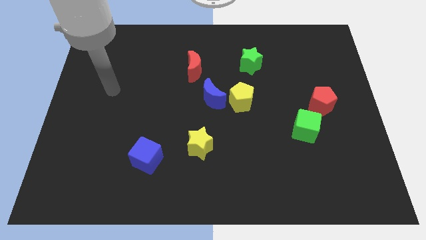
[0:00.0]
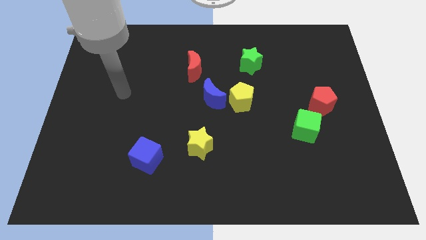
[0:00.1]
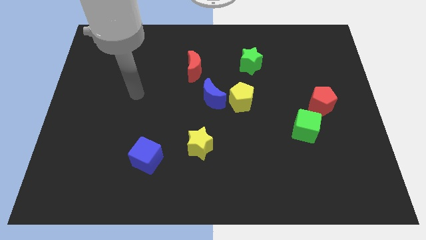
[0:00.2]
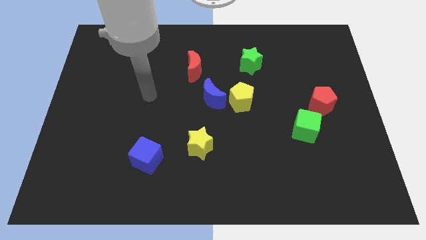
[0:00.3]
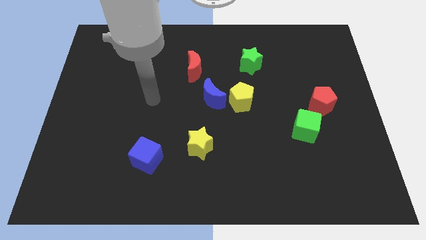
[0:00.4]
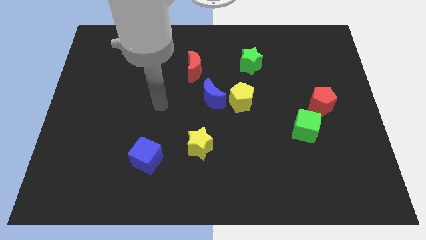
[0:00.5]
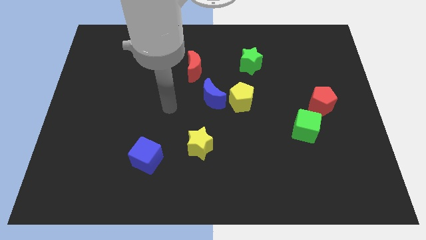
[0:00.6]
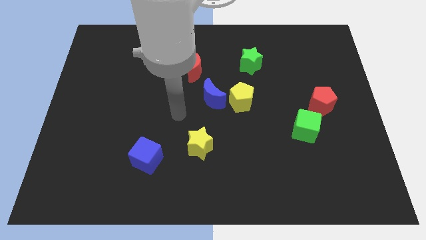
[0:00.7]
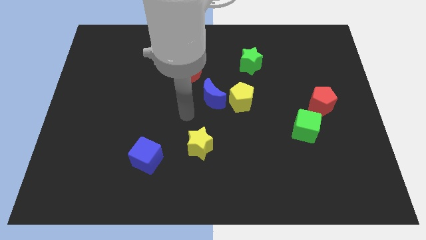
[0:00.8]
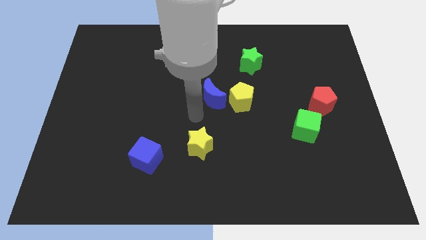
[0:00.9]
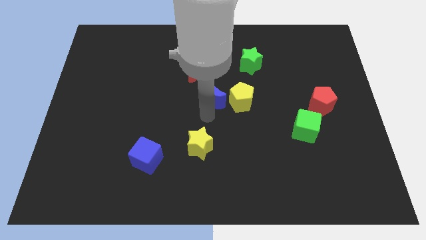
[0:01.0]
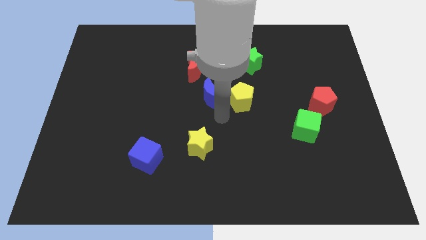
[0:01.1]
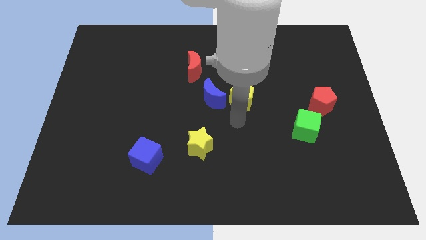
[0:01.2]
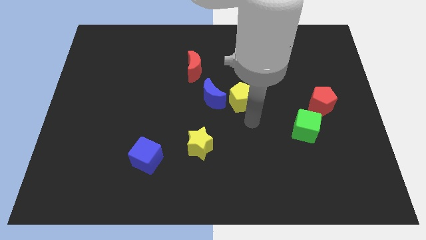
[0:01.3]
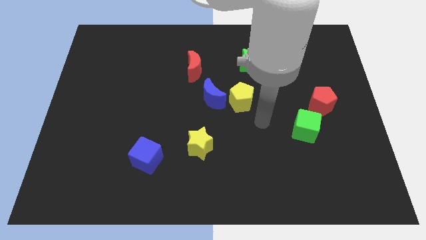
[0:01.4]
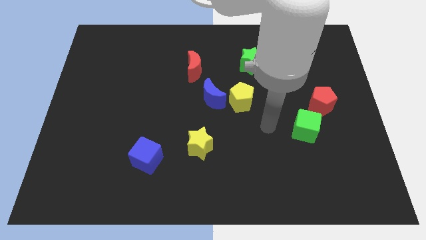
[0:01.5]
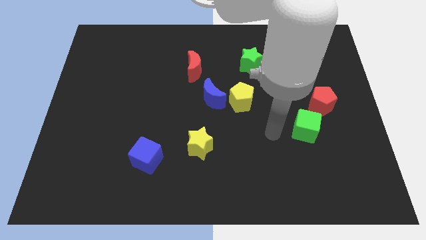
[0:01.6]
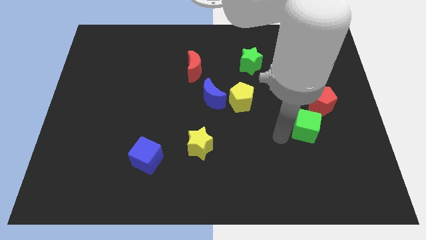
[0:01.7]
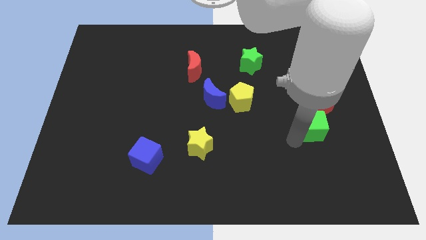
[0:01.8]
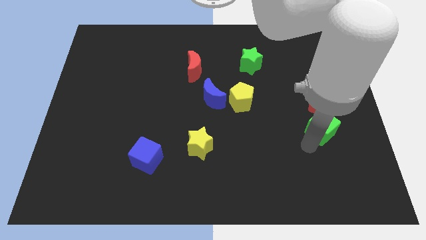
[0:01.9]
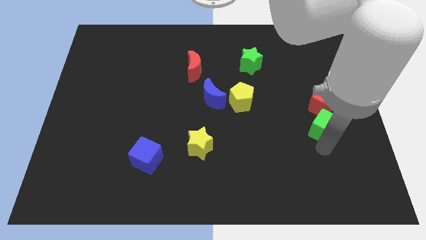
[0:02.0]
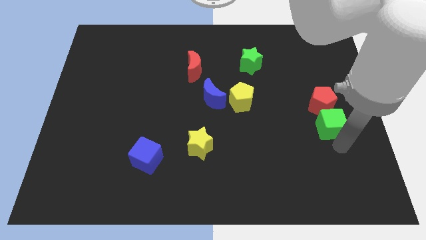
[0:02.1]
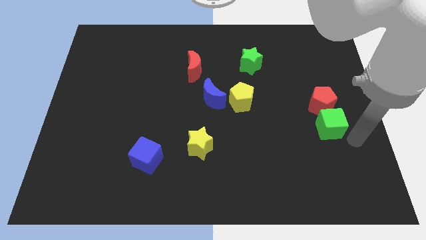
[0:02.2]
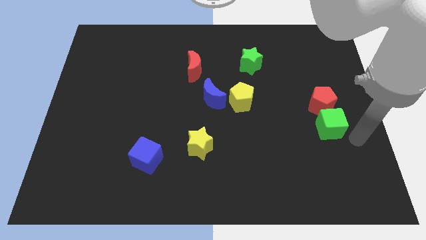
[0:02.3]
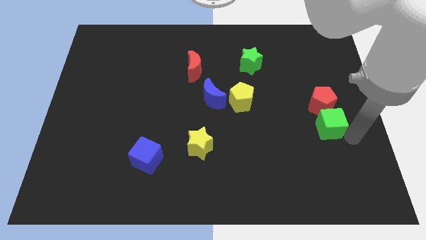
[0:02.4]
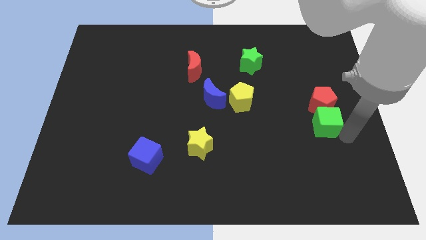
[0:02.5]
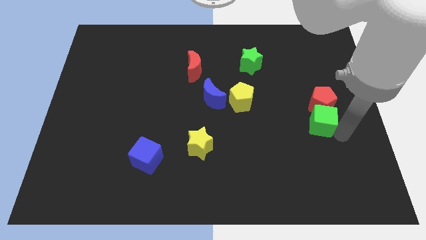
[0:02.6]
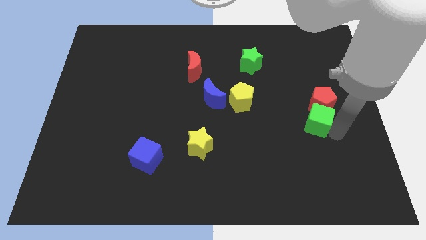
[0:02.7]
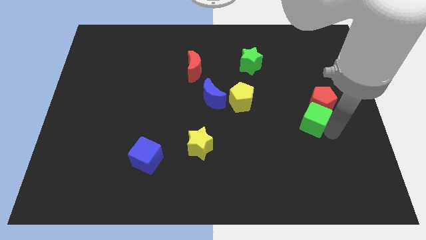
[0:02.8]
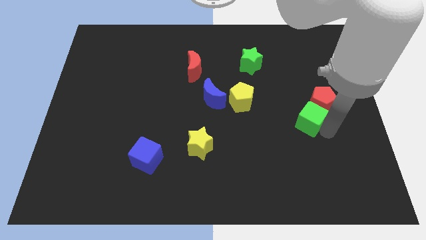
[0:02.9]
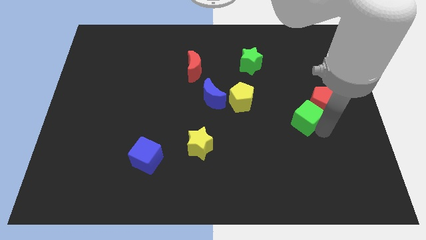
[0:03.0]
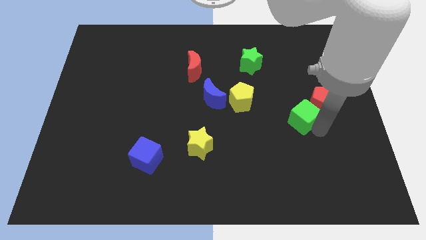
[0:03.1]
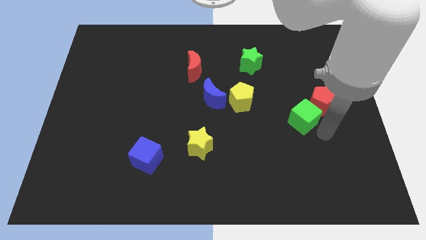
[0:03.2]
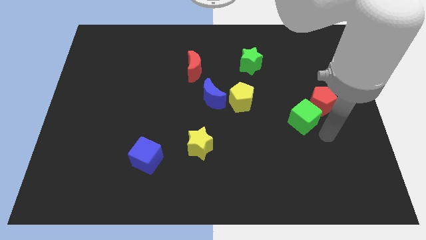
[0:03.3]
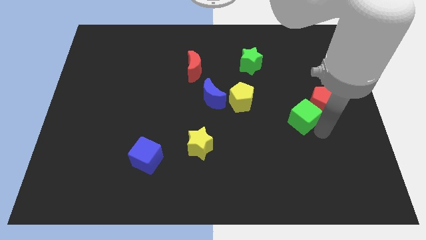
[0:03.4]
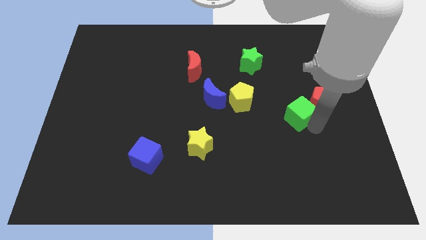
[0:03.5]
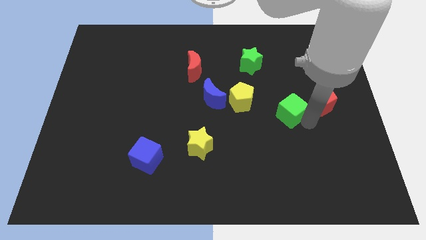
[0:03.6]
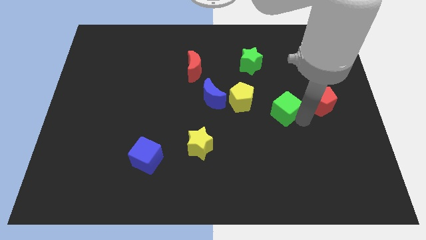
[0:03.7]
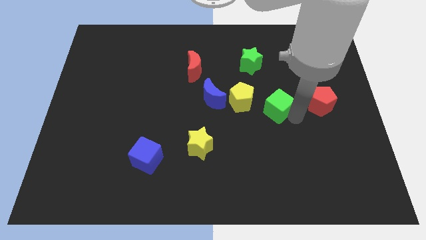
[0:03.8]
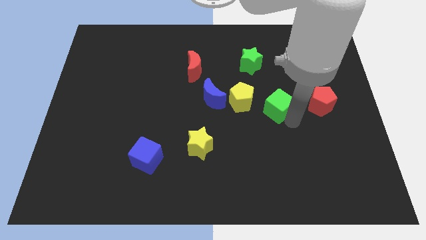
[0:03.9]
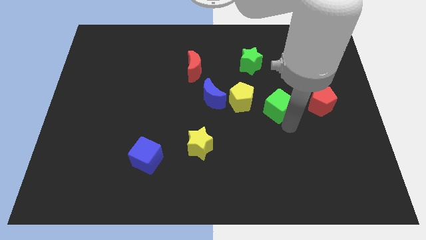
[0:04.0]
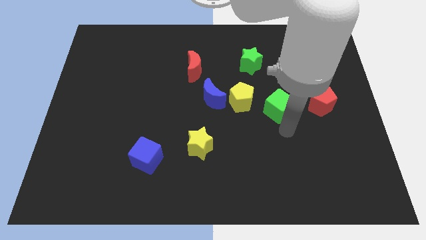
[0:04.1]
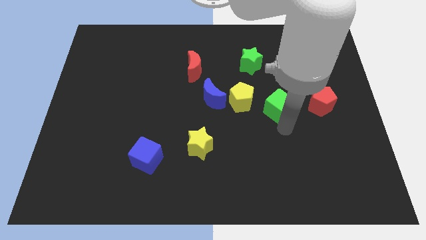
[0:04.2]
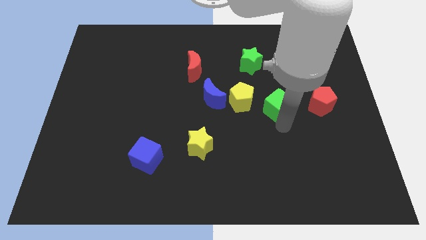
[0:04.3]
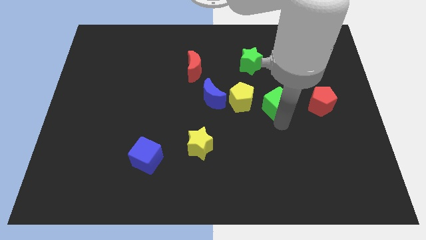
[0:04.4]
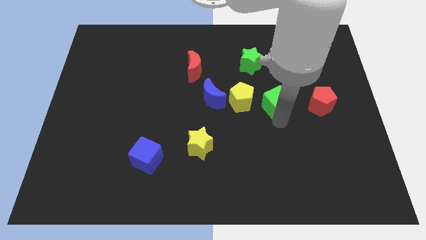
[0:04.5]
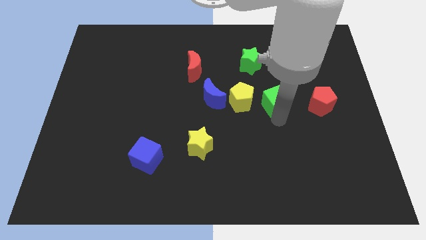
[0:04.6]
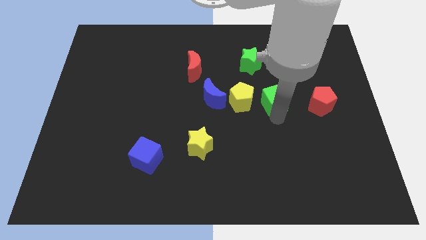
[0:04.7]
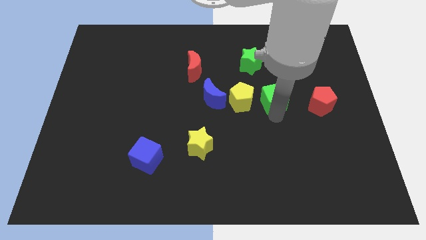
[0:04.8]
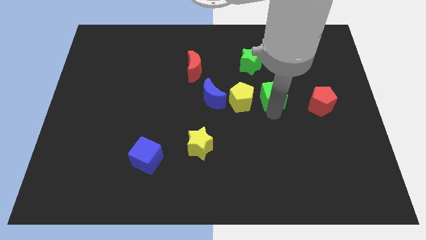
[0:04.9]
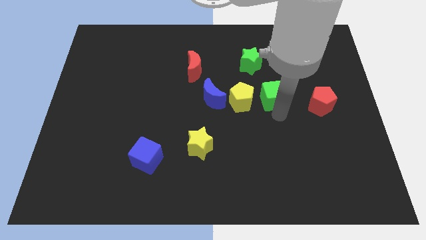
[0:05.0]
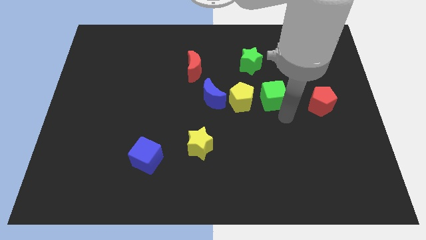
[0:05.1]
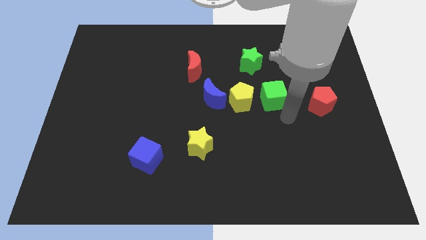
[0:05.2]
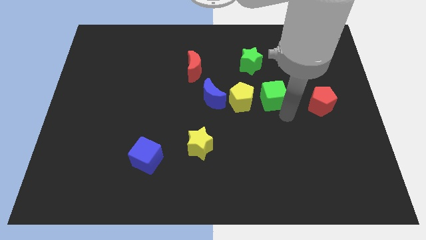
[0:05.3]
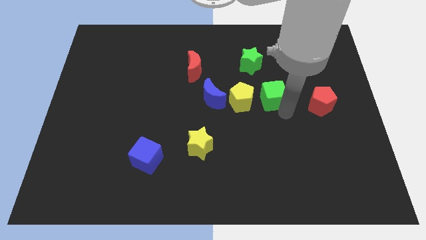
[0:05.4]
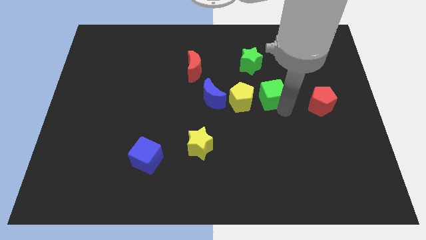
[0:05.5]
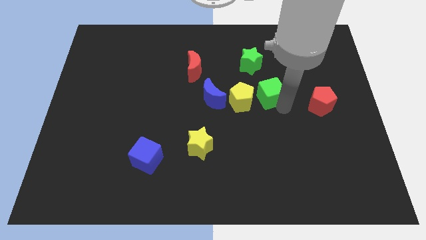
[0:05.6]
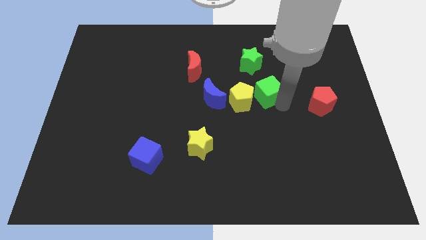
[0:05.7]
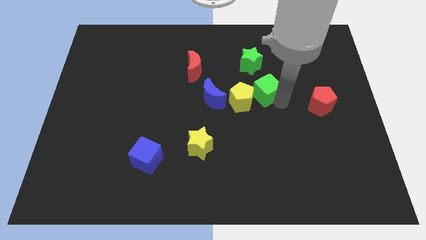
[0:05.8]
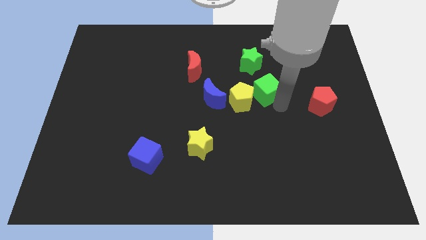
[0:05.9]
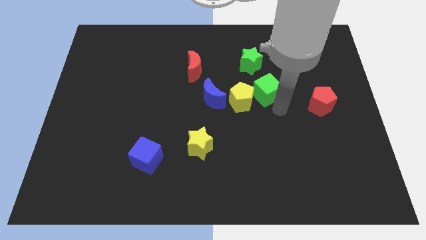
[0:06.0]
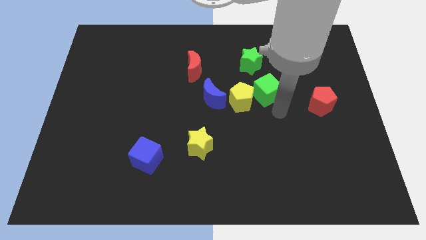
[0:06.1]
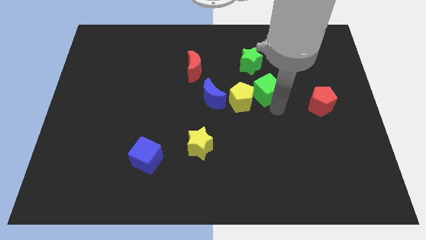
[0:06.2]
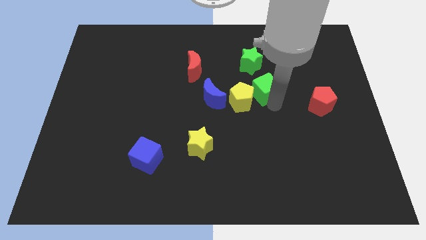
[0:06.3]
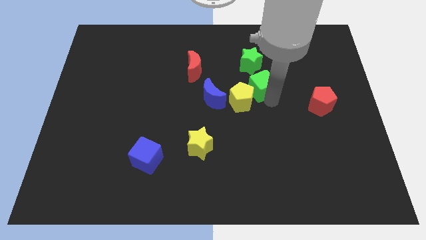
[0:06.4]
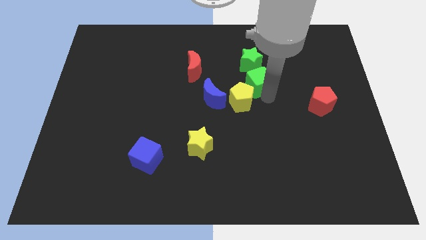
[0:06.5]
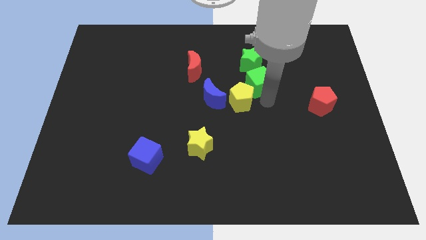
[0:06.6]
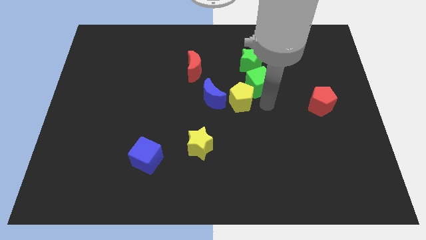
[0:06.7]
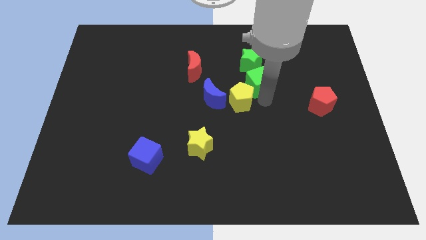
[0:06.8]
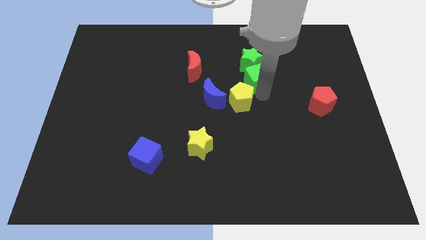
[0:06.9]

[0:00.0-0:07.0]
slide the green cube next to the green star

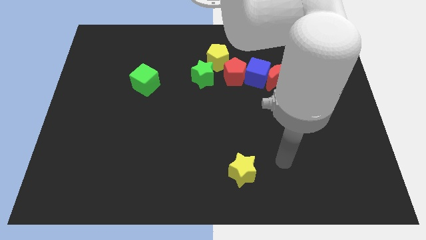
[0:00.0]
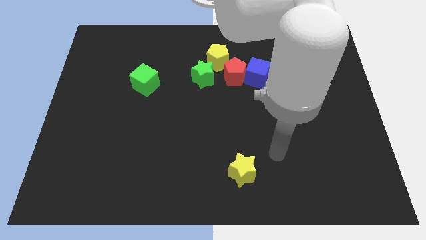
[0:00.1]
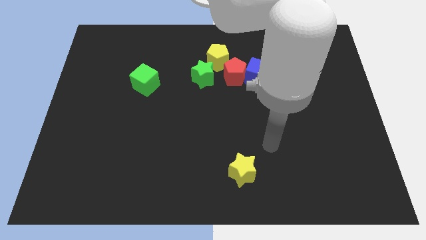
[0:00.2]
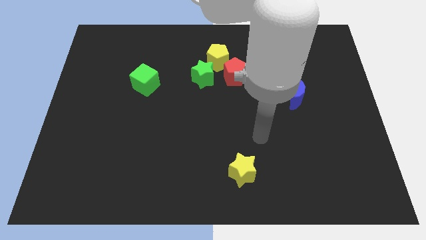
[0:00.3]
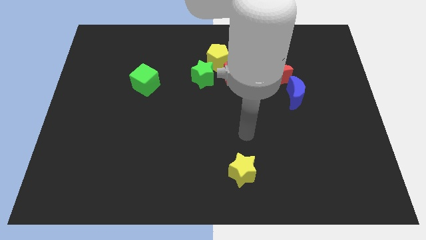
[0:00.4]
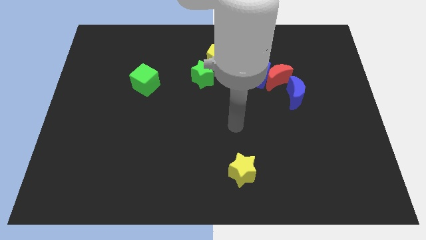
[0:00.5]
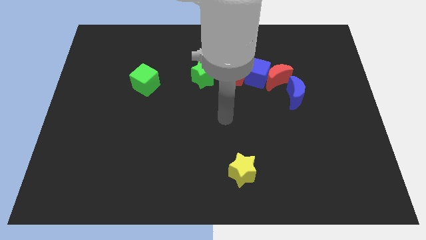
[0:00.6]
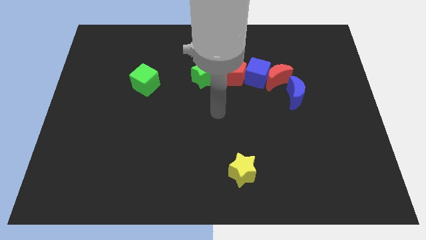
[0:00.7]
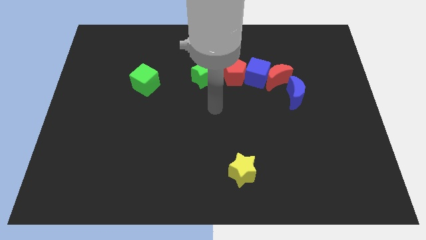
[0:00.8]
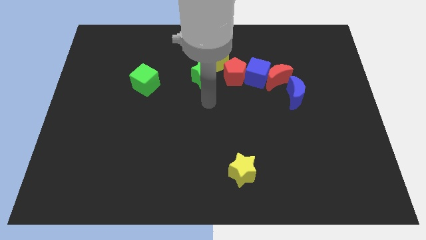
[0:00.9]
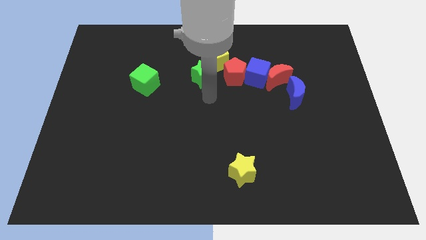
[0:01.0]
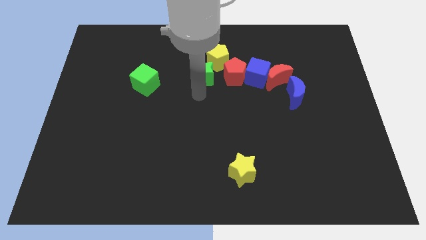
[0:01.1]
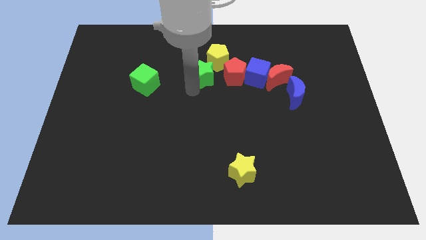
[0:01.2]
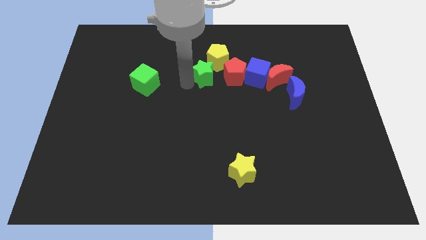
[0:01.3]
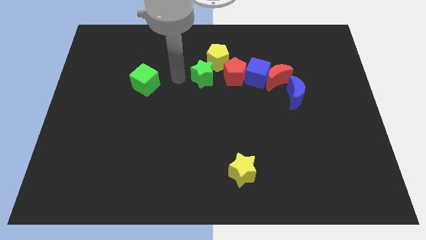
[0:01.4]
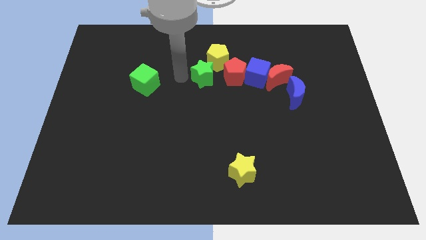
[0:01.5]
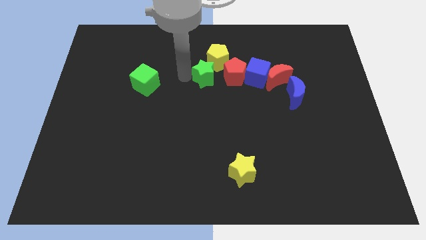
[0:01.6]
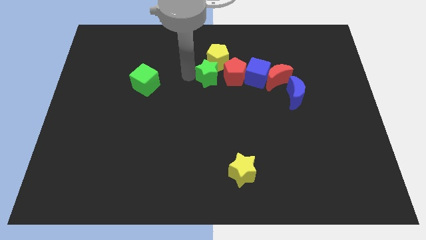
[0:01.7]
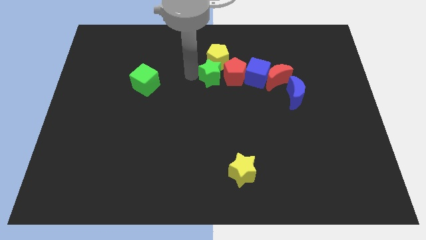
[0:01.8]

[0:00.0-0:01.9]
slide the green star next to the red pentagon

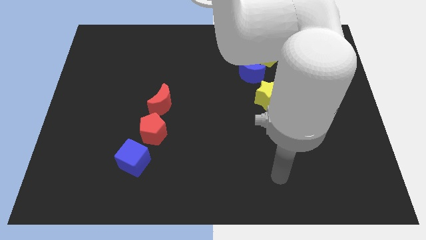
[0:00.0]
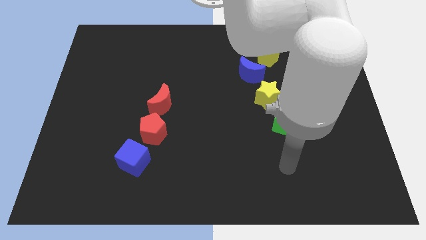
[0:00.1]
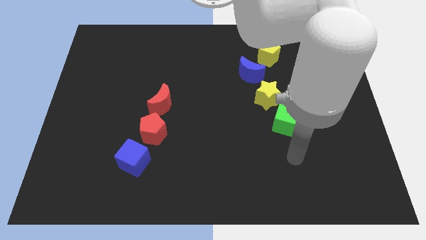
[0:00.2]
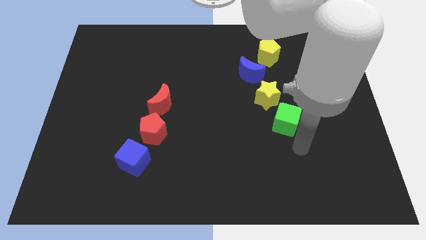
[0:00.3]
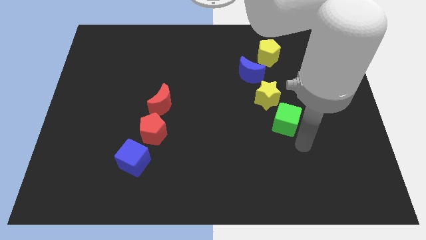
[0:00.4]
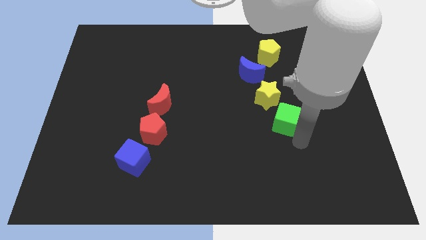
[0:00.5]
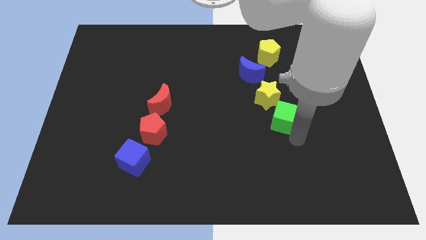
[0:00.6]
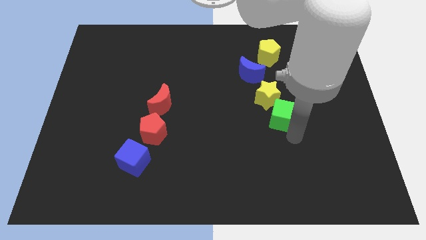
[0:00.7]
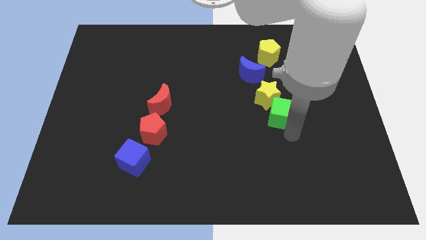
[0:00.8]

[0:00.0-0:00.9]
slide the green cube next to the yellow star
